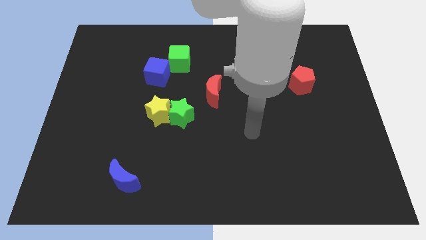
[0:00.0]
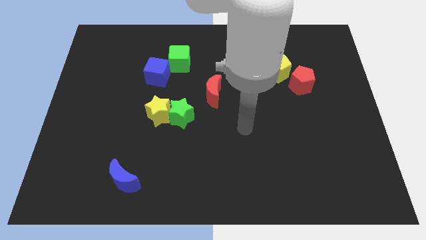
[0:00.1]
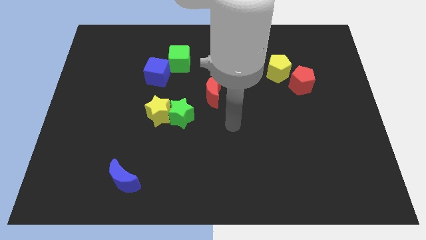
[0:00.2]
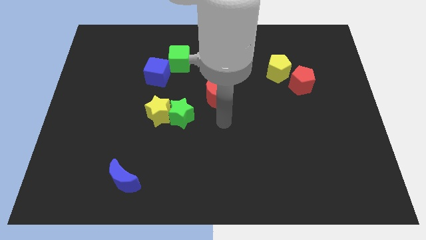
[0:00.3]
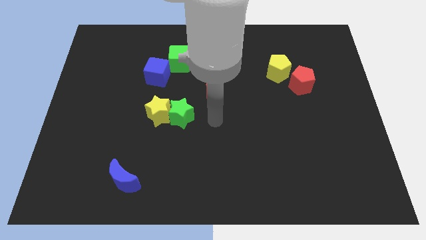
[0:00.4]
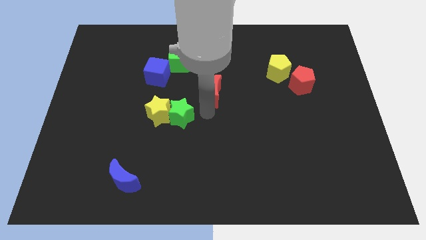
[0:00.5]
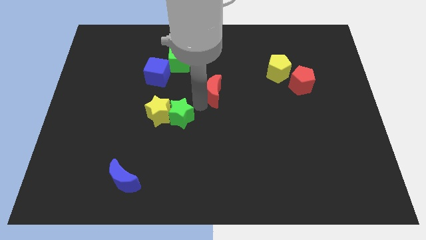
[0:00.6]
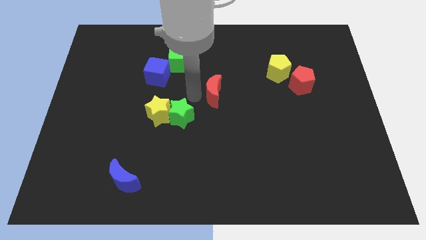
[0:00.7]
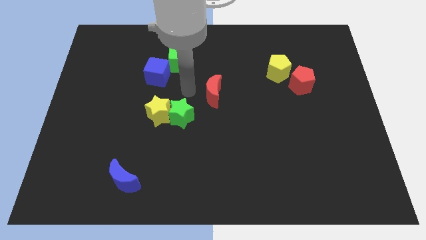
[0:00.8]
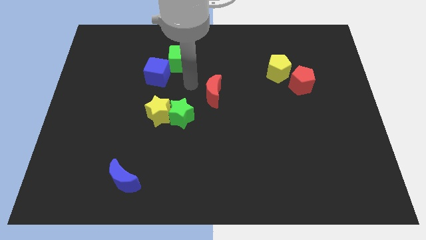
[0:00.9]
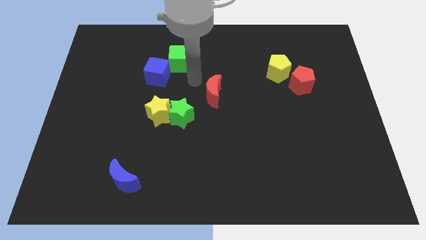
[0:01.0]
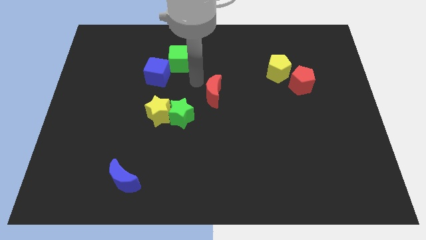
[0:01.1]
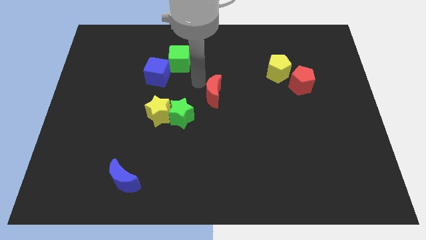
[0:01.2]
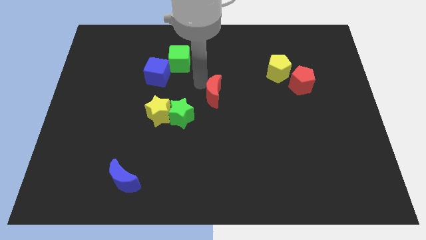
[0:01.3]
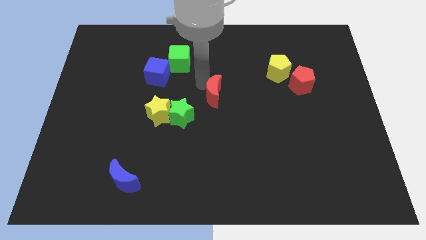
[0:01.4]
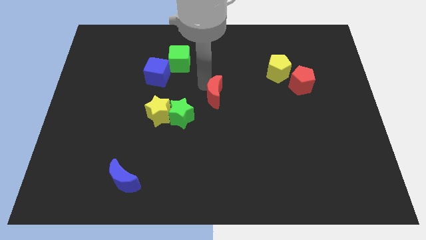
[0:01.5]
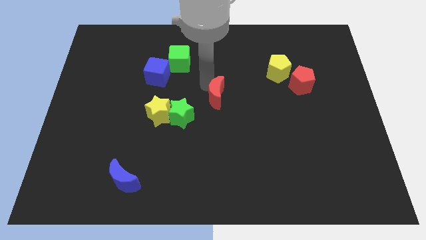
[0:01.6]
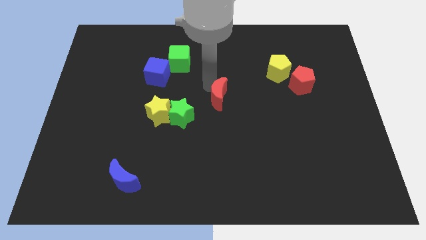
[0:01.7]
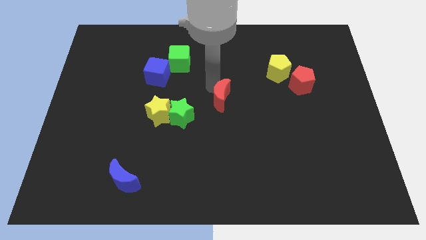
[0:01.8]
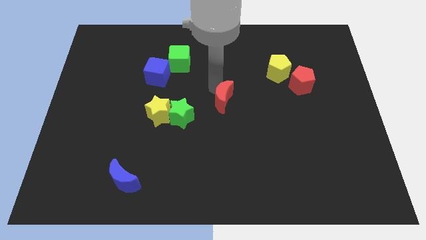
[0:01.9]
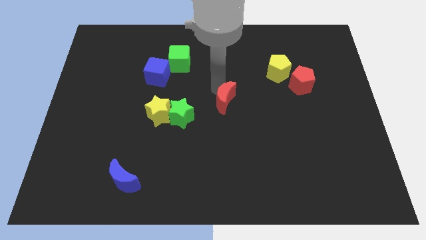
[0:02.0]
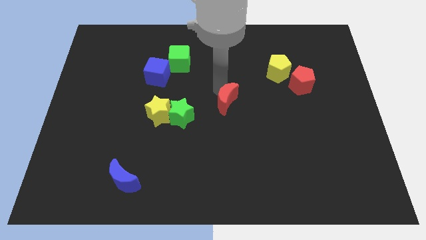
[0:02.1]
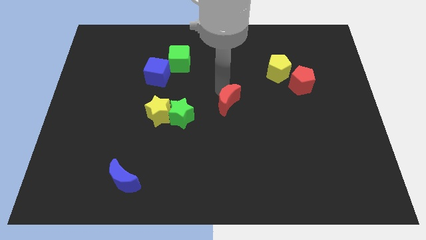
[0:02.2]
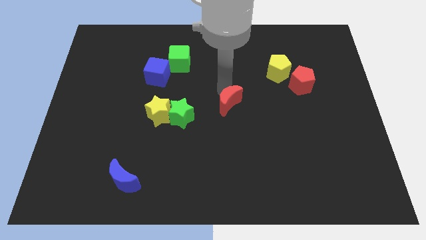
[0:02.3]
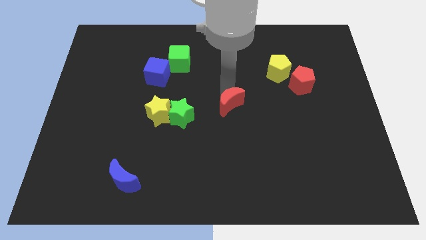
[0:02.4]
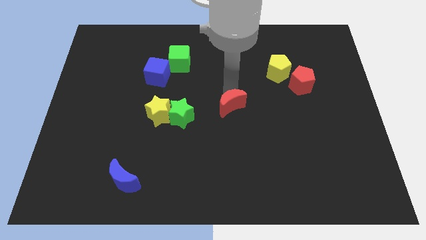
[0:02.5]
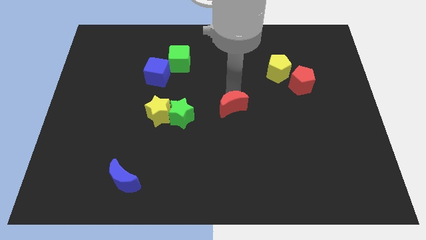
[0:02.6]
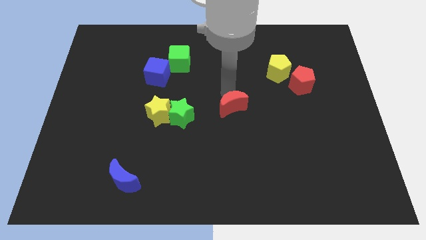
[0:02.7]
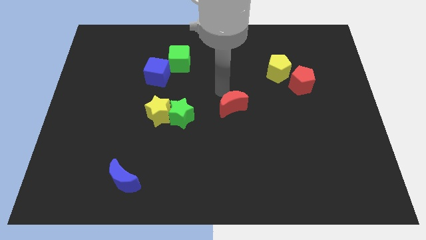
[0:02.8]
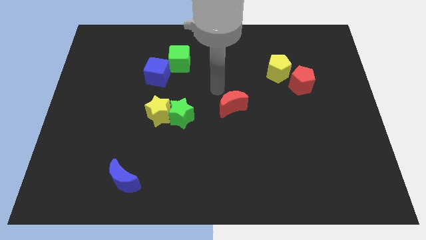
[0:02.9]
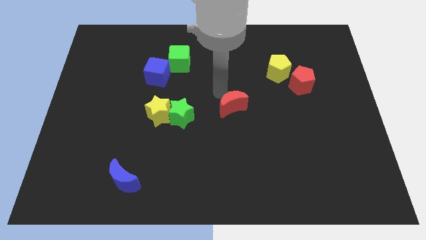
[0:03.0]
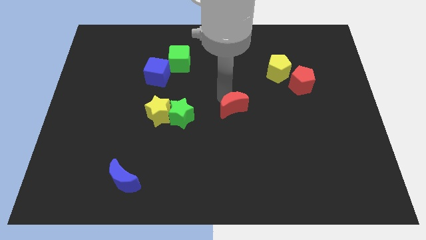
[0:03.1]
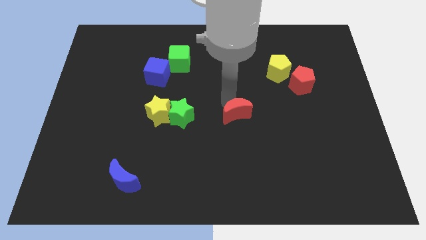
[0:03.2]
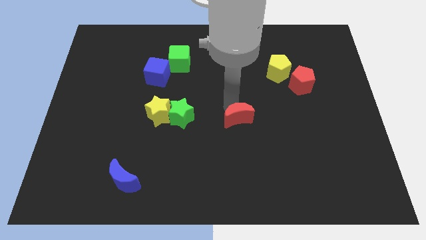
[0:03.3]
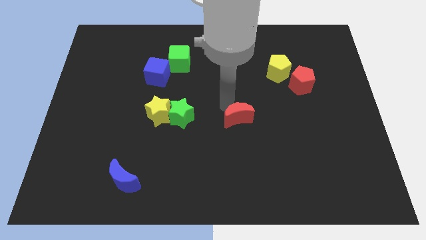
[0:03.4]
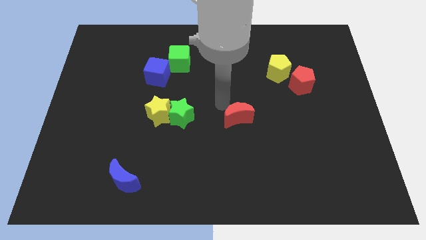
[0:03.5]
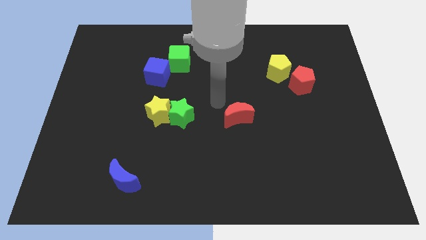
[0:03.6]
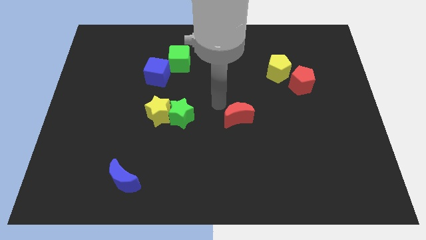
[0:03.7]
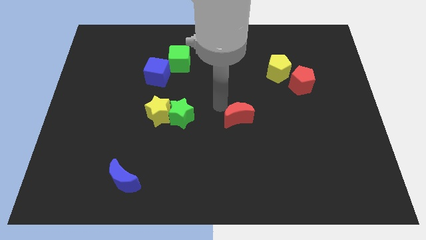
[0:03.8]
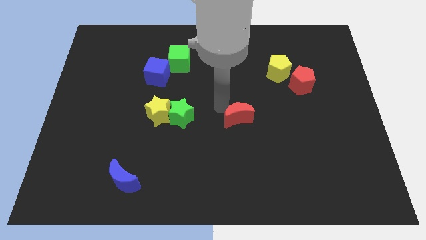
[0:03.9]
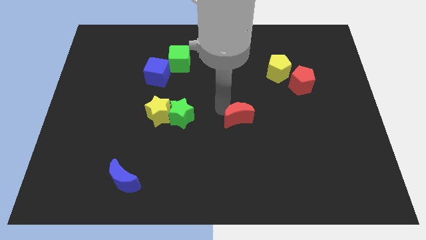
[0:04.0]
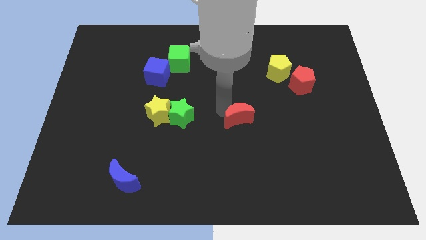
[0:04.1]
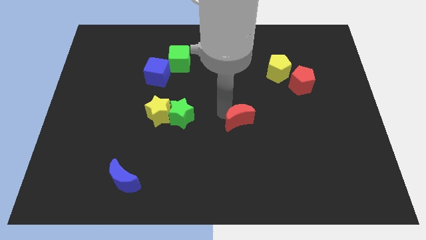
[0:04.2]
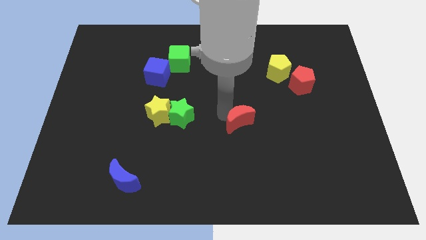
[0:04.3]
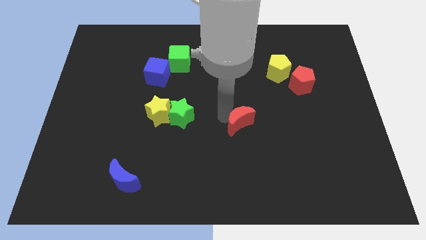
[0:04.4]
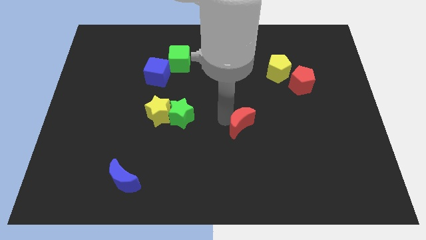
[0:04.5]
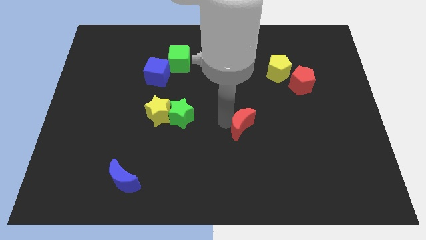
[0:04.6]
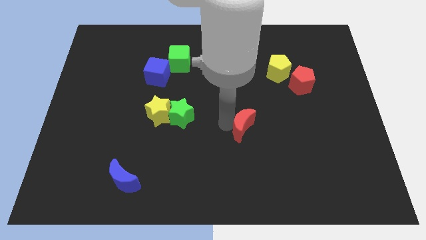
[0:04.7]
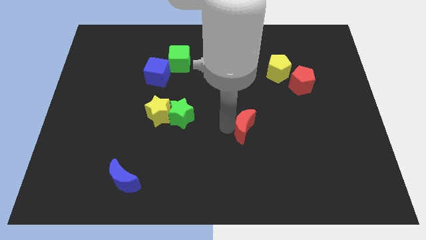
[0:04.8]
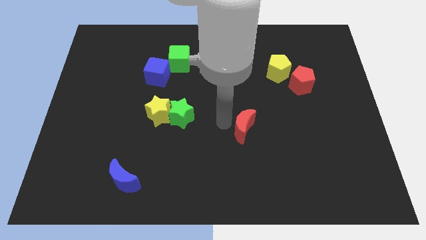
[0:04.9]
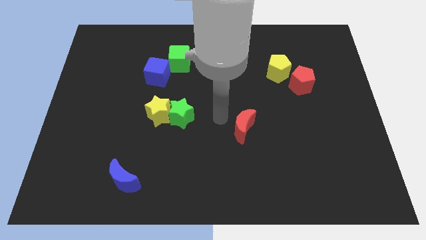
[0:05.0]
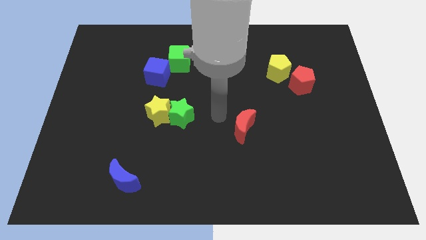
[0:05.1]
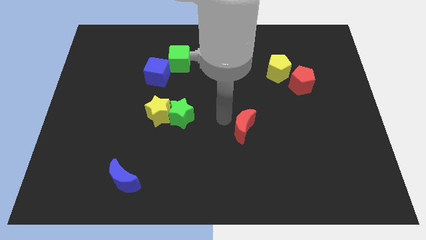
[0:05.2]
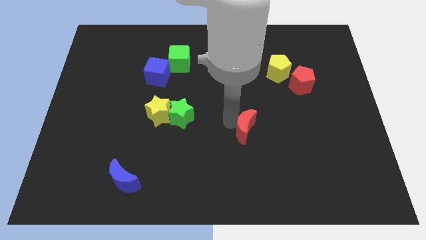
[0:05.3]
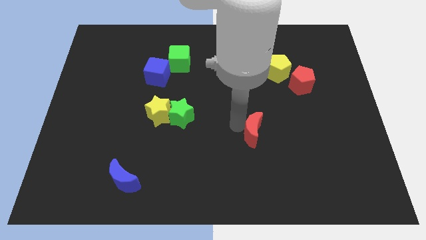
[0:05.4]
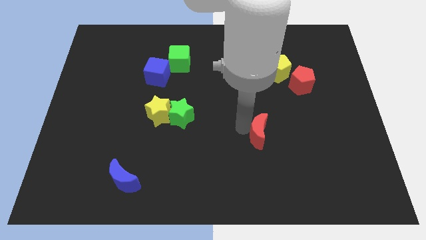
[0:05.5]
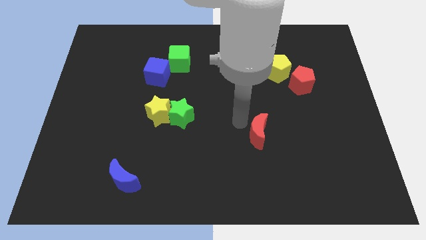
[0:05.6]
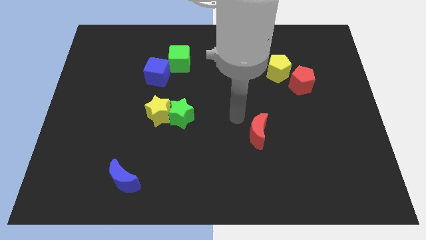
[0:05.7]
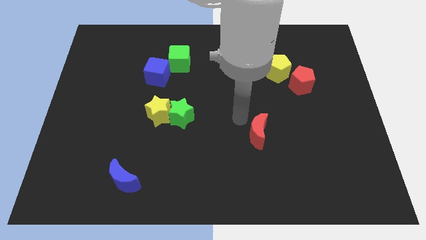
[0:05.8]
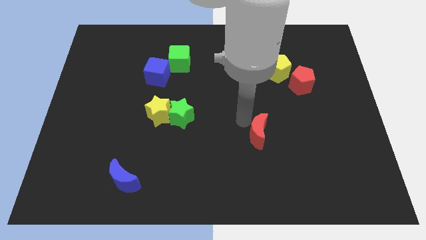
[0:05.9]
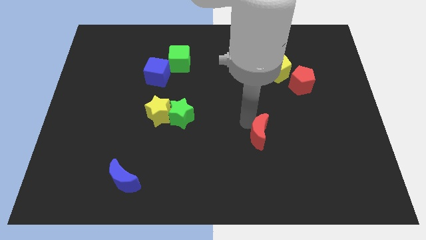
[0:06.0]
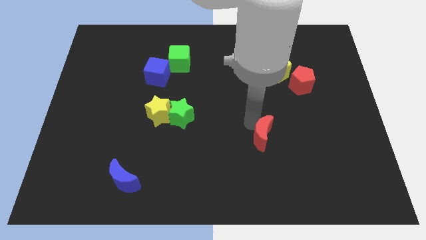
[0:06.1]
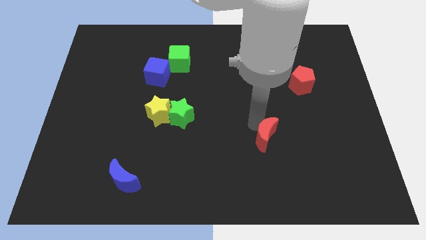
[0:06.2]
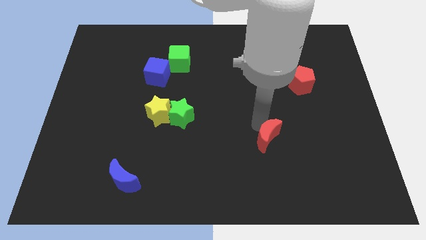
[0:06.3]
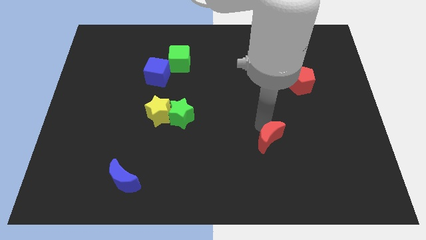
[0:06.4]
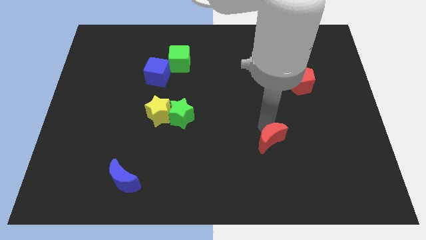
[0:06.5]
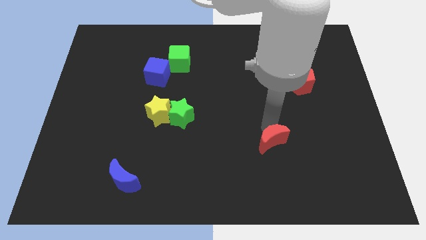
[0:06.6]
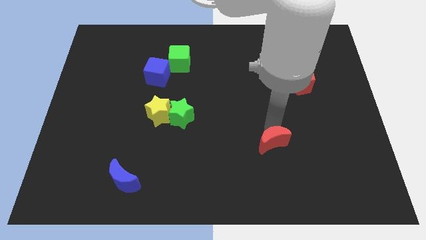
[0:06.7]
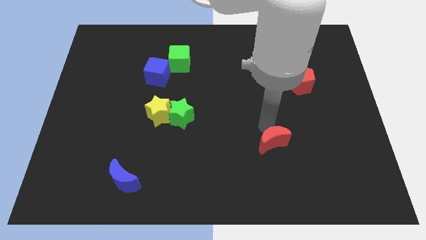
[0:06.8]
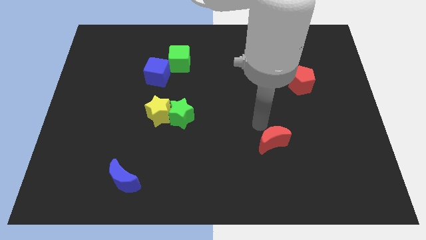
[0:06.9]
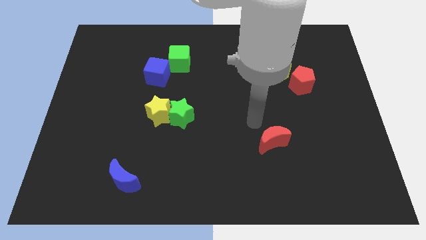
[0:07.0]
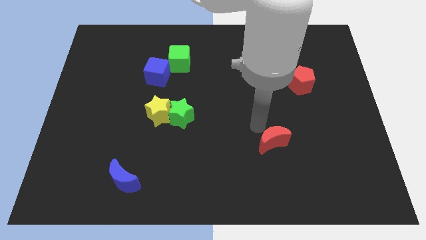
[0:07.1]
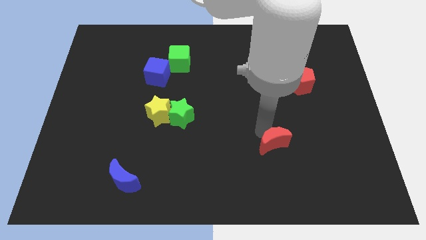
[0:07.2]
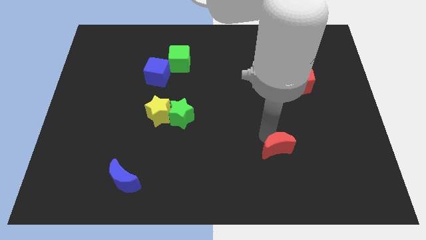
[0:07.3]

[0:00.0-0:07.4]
slide the red moon diagonally downwards and right

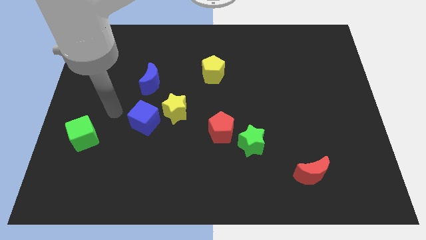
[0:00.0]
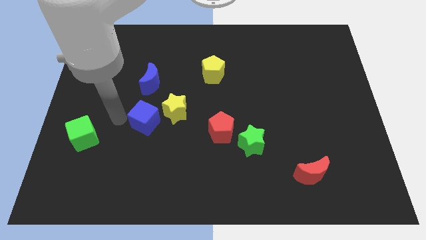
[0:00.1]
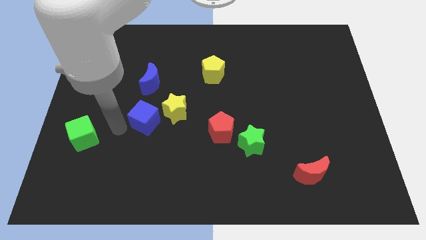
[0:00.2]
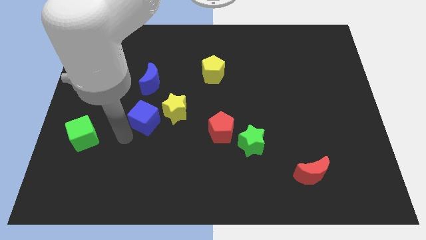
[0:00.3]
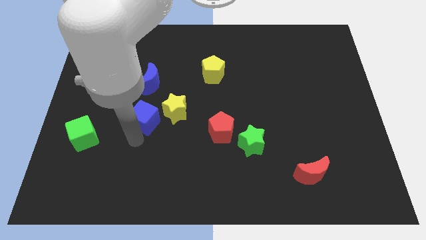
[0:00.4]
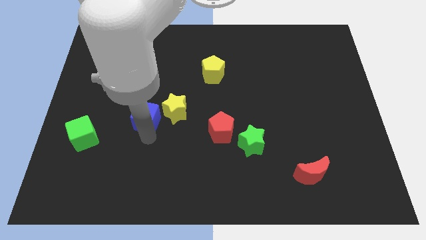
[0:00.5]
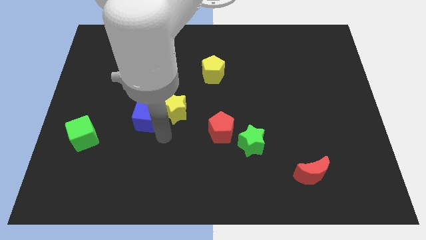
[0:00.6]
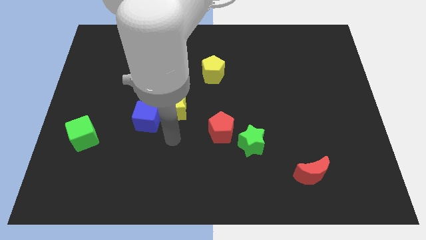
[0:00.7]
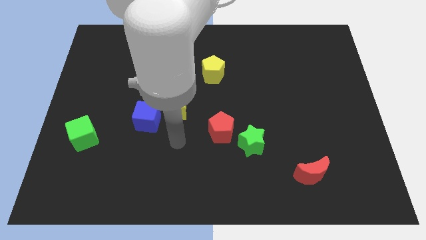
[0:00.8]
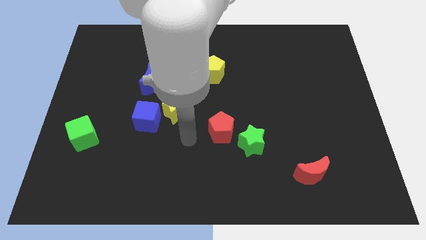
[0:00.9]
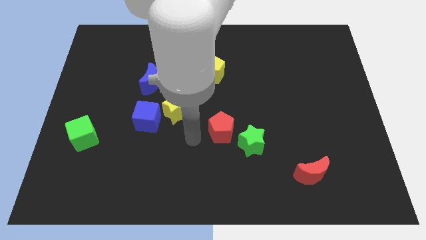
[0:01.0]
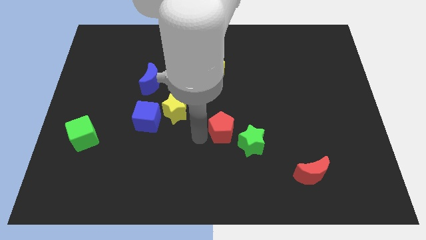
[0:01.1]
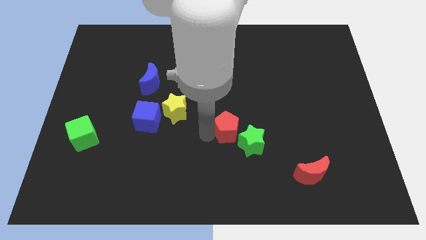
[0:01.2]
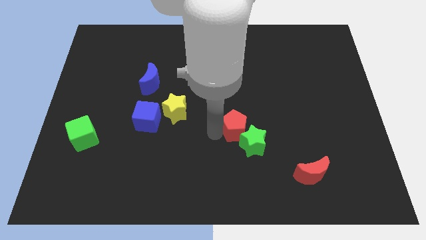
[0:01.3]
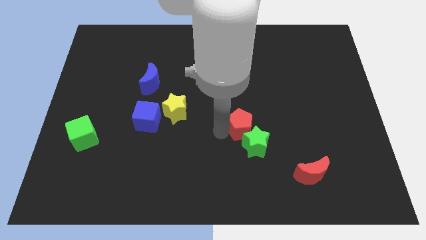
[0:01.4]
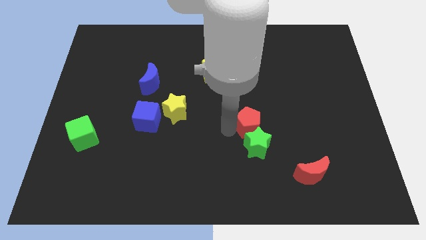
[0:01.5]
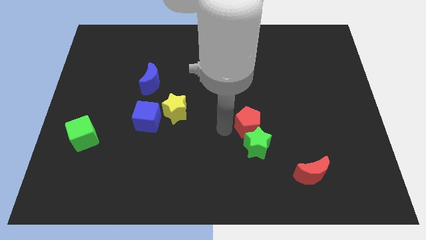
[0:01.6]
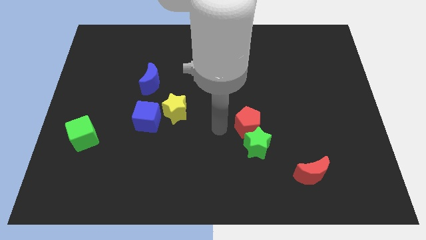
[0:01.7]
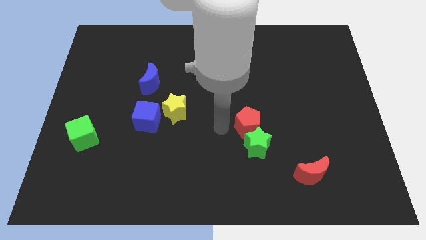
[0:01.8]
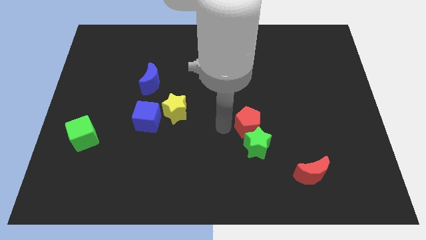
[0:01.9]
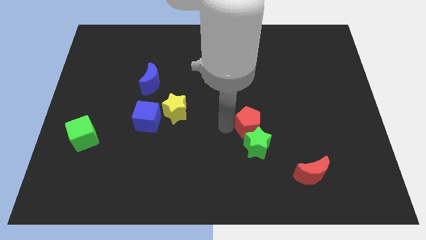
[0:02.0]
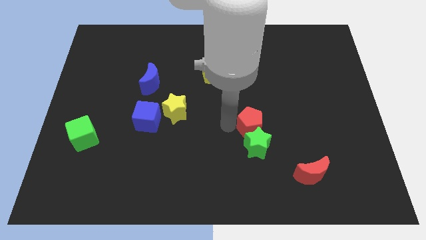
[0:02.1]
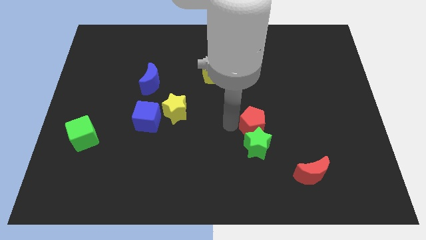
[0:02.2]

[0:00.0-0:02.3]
push the red pentagon right a little bit
